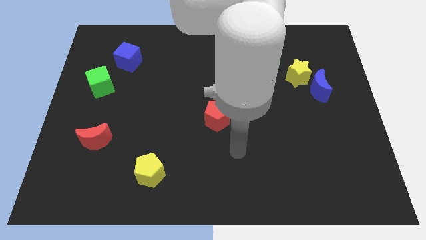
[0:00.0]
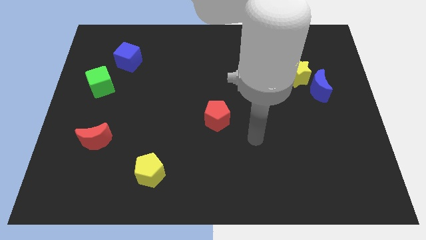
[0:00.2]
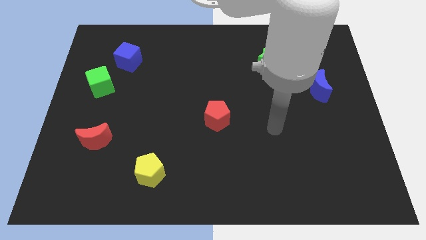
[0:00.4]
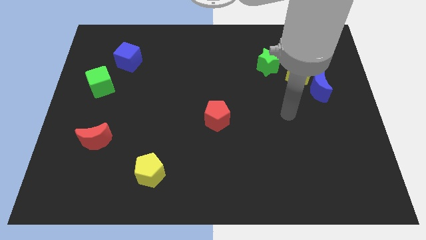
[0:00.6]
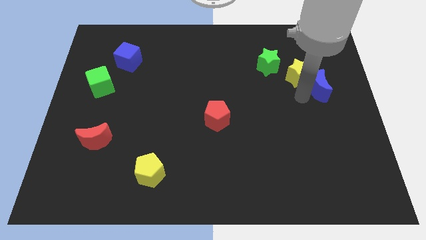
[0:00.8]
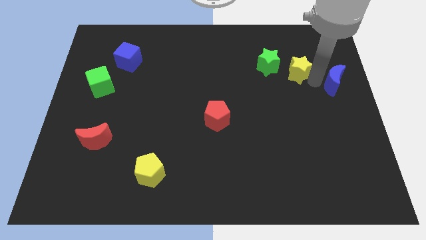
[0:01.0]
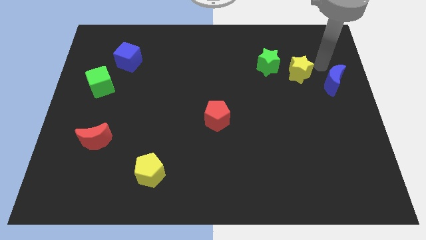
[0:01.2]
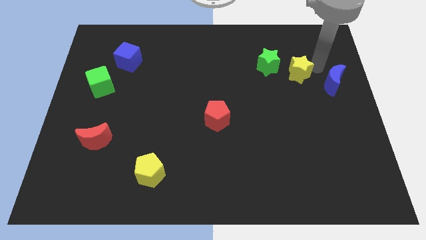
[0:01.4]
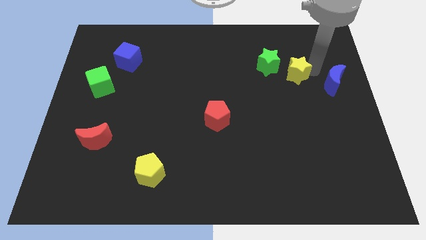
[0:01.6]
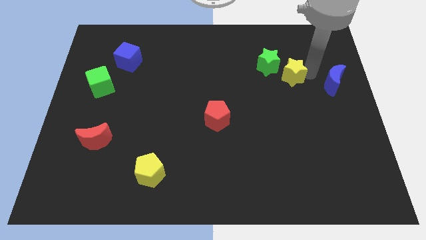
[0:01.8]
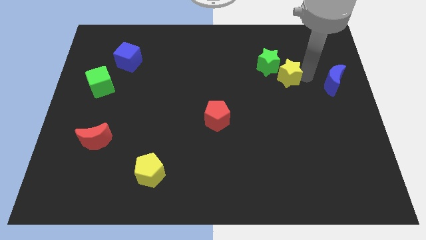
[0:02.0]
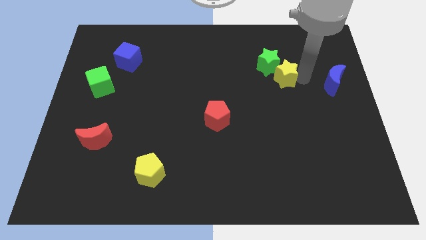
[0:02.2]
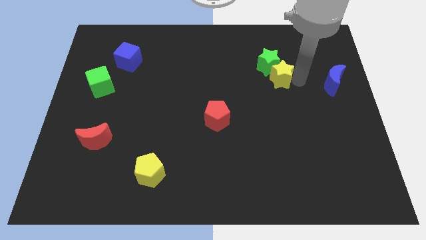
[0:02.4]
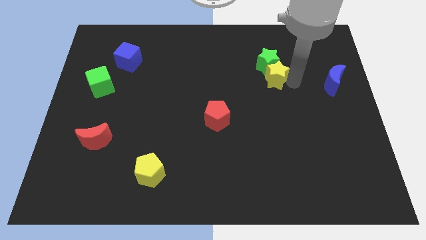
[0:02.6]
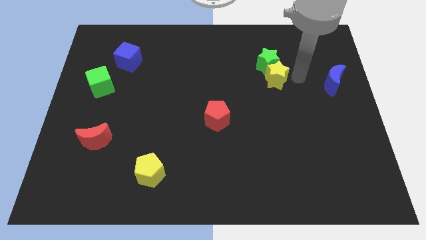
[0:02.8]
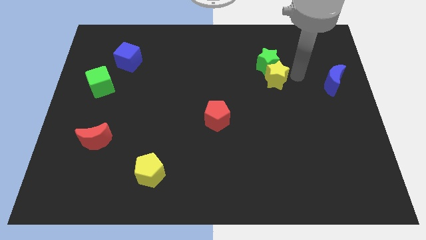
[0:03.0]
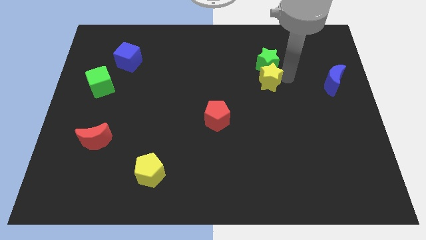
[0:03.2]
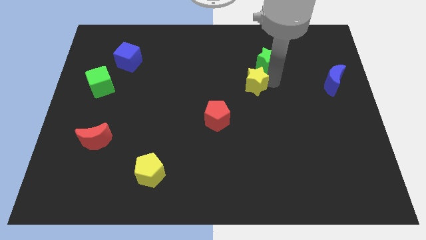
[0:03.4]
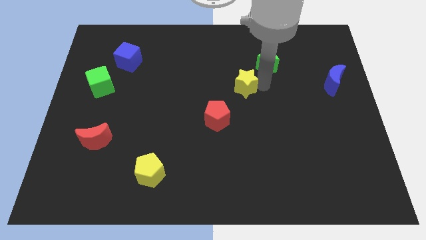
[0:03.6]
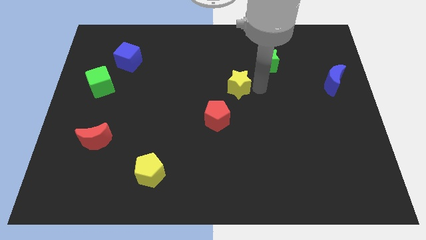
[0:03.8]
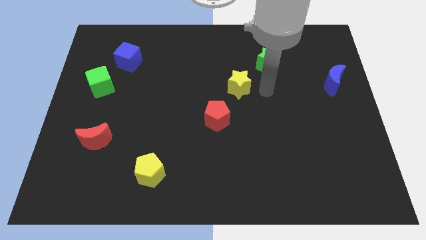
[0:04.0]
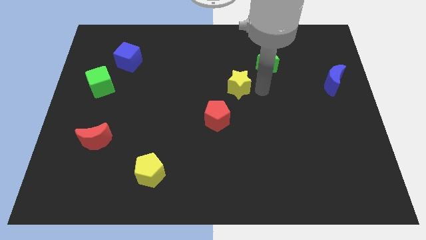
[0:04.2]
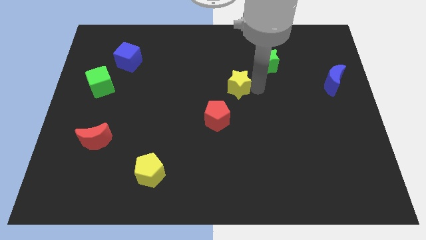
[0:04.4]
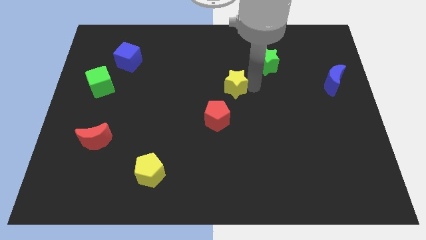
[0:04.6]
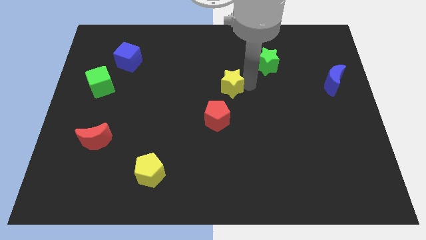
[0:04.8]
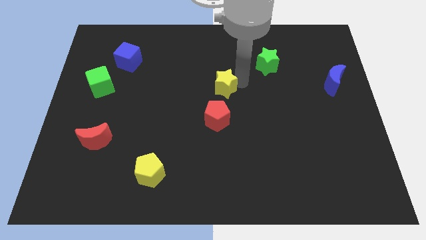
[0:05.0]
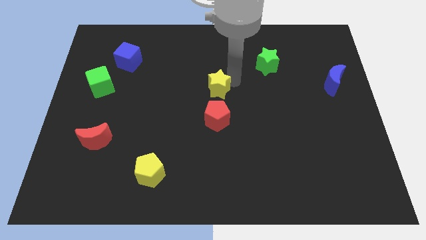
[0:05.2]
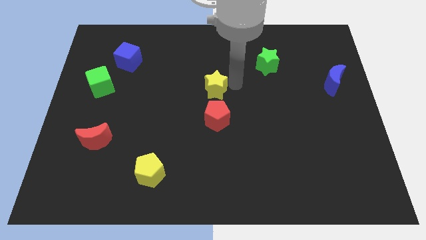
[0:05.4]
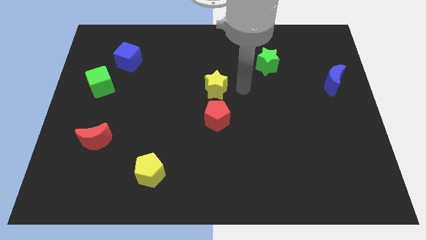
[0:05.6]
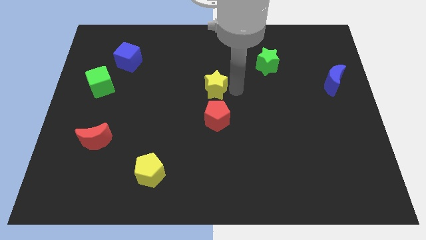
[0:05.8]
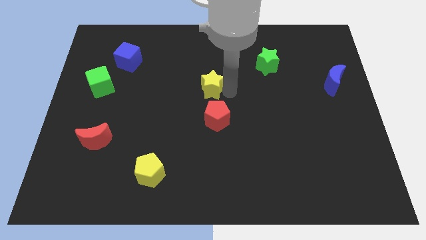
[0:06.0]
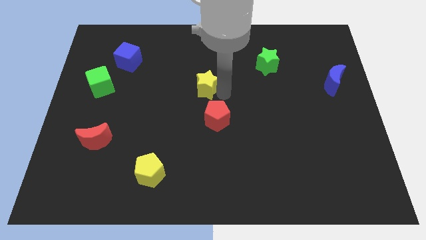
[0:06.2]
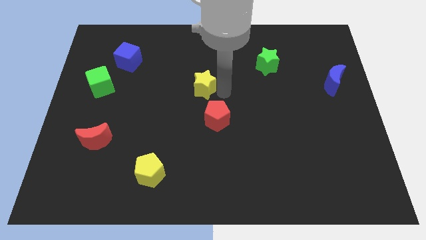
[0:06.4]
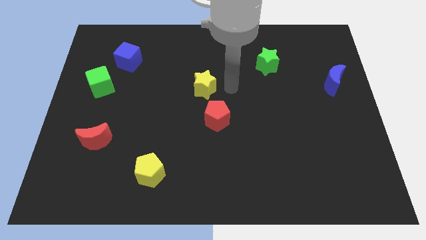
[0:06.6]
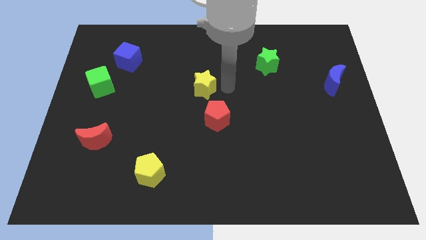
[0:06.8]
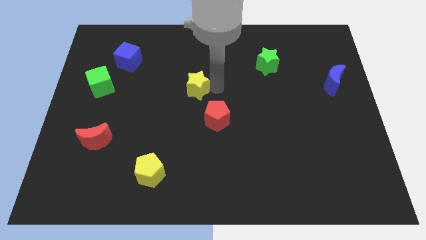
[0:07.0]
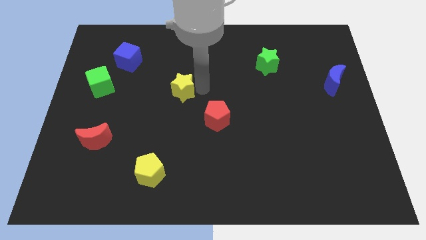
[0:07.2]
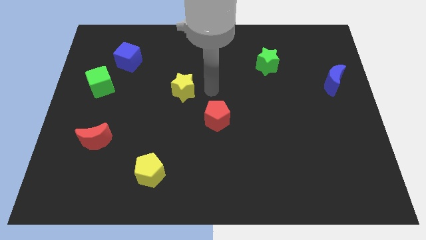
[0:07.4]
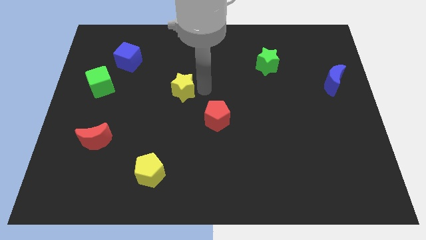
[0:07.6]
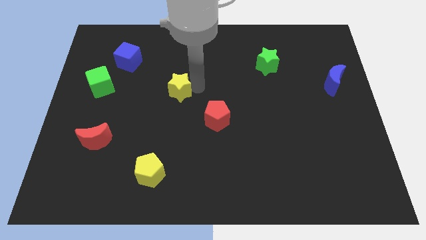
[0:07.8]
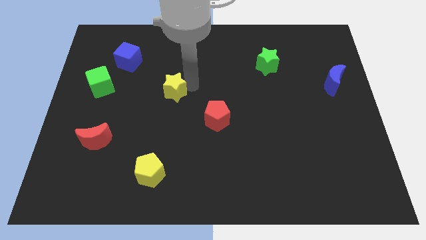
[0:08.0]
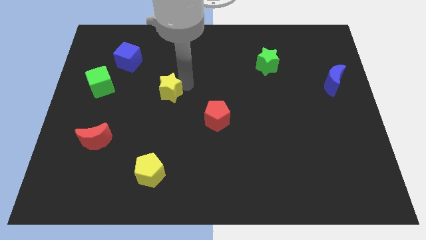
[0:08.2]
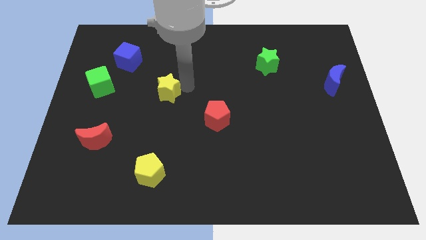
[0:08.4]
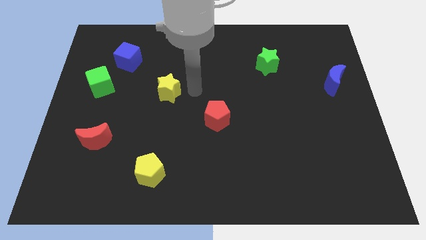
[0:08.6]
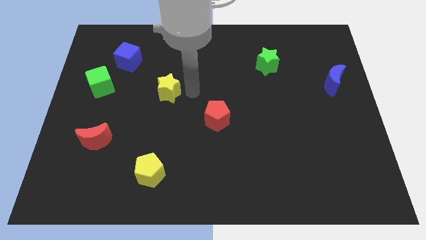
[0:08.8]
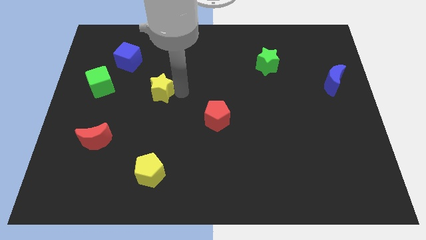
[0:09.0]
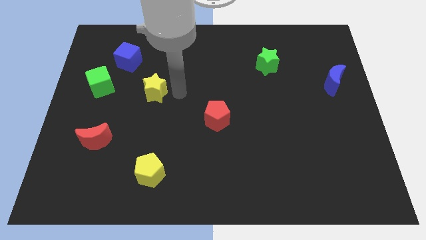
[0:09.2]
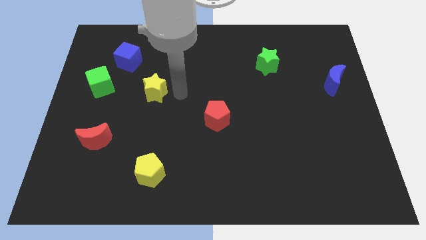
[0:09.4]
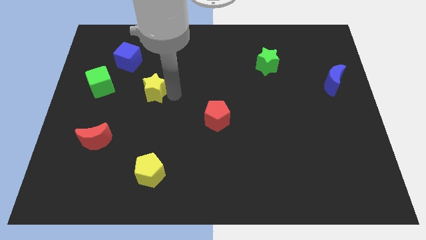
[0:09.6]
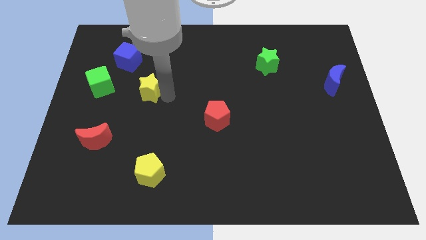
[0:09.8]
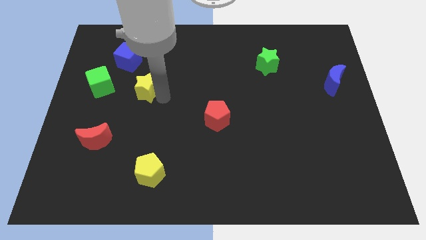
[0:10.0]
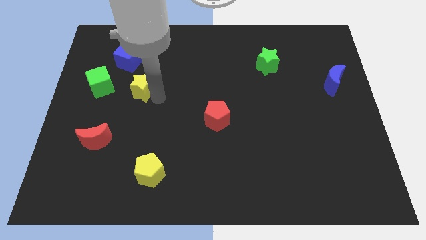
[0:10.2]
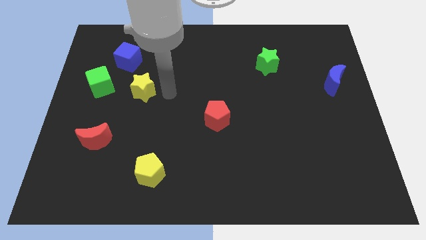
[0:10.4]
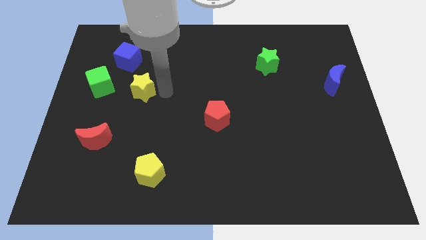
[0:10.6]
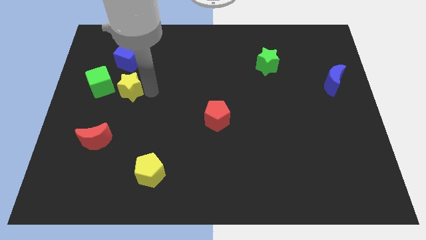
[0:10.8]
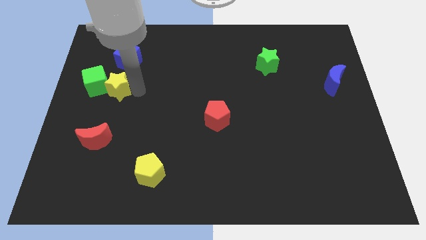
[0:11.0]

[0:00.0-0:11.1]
put the yellow star close to the green cube

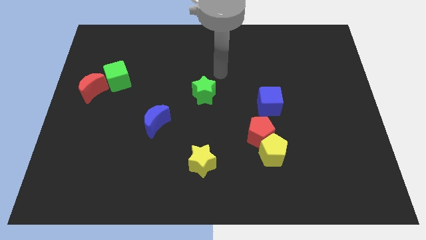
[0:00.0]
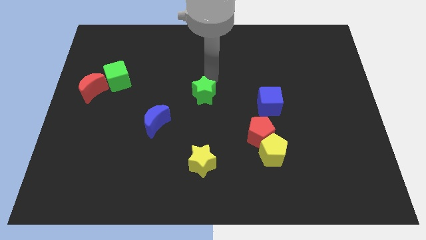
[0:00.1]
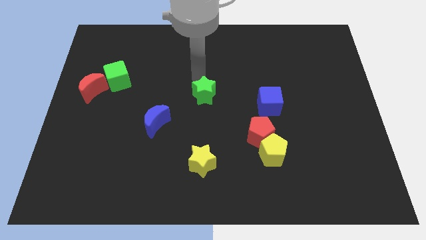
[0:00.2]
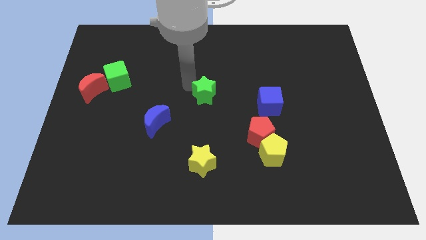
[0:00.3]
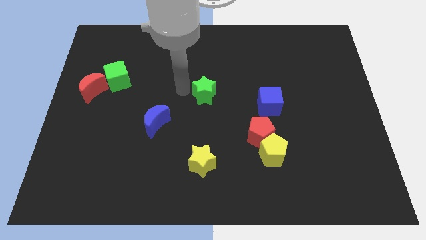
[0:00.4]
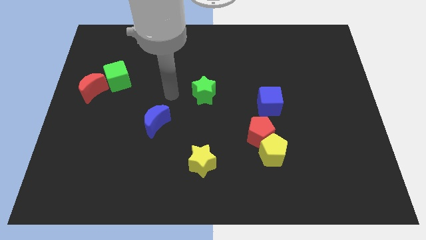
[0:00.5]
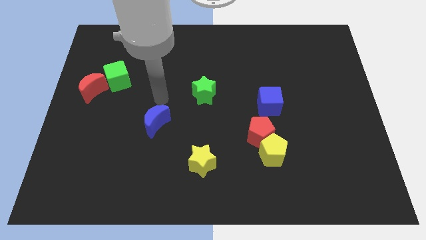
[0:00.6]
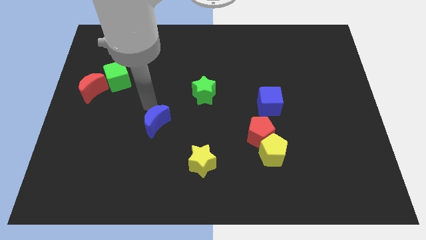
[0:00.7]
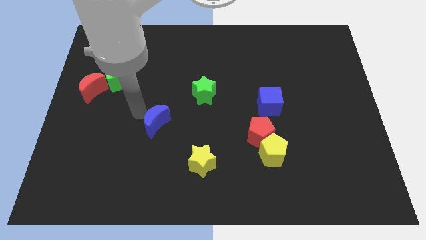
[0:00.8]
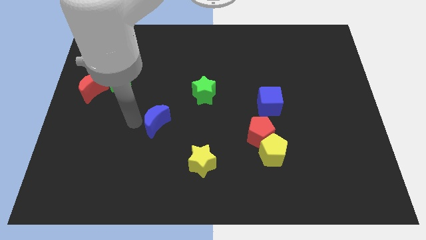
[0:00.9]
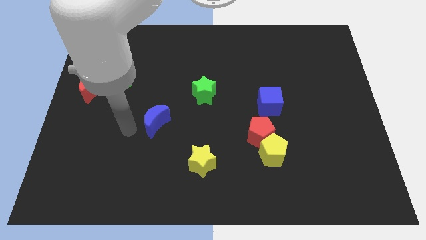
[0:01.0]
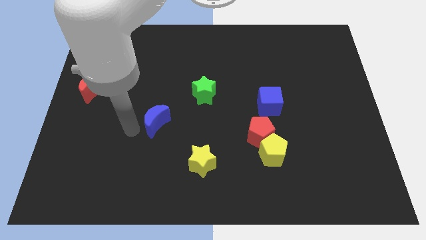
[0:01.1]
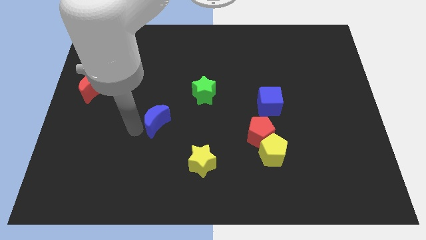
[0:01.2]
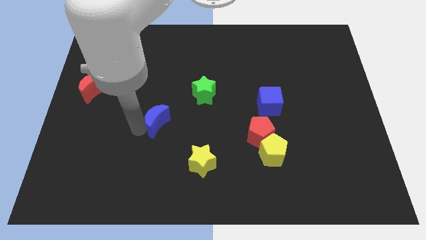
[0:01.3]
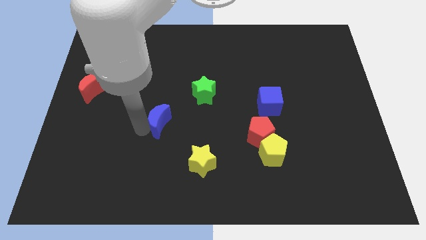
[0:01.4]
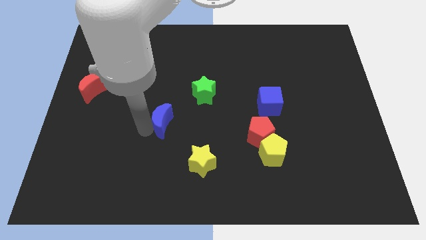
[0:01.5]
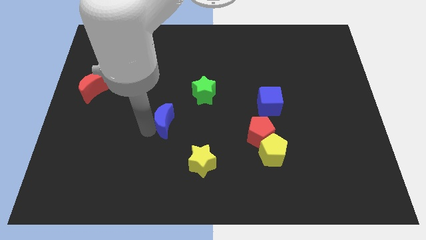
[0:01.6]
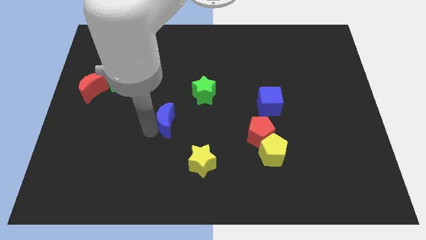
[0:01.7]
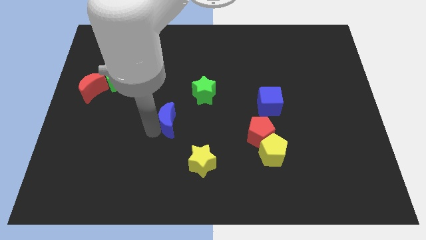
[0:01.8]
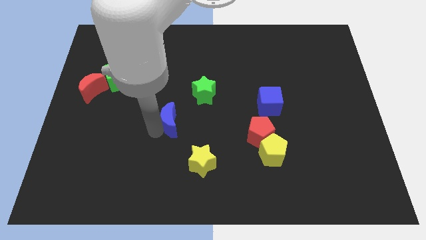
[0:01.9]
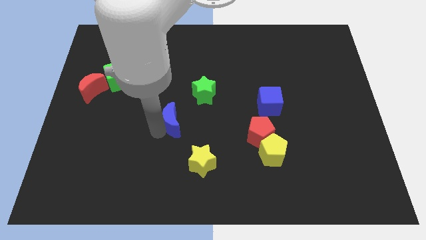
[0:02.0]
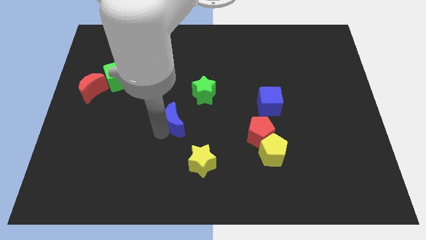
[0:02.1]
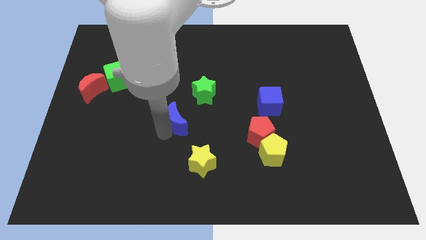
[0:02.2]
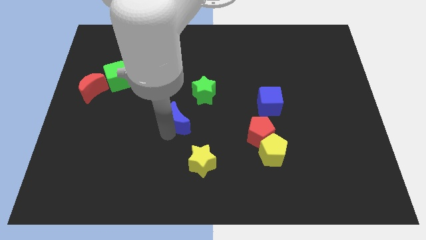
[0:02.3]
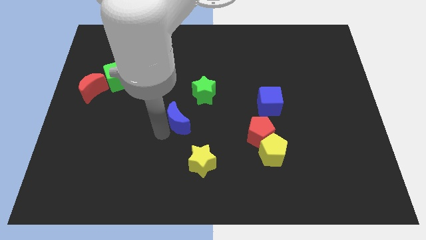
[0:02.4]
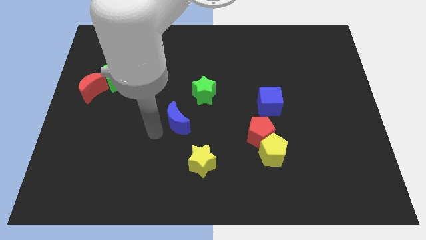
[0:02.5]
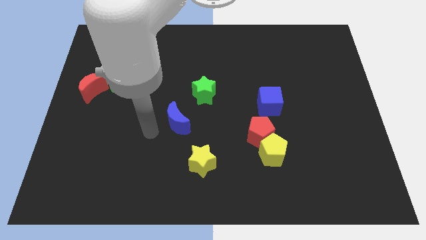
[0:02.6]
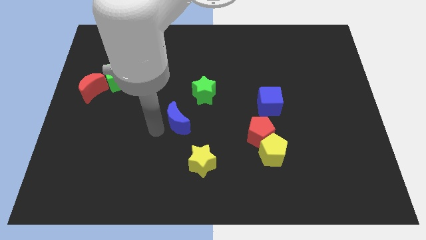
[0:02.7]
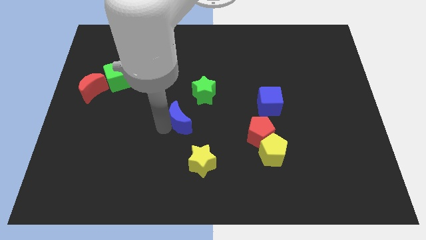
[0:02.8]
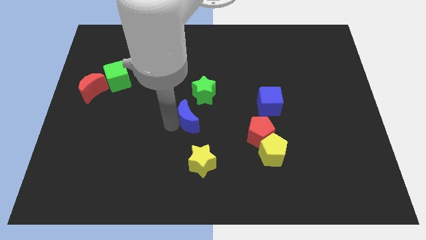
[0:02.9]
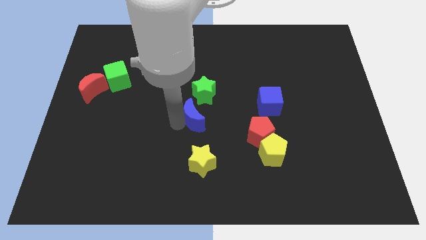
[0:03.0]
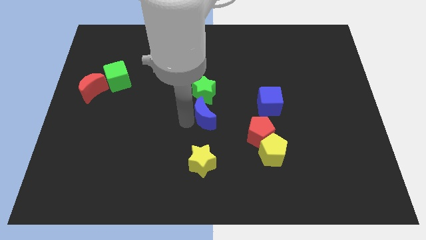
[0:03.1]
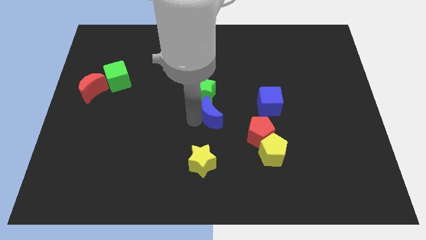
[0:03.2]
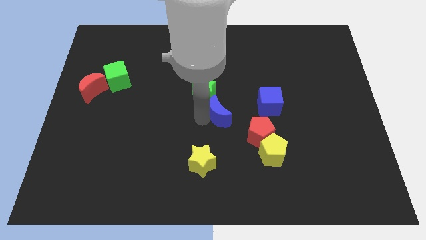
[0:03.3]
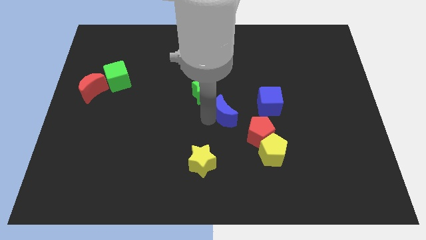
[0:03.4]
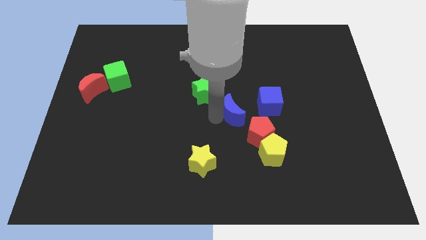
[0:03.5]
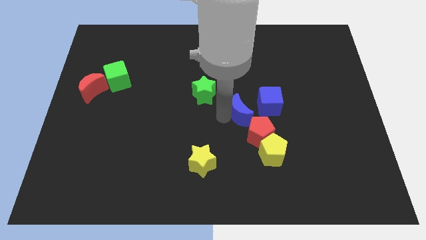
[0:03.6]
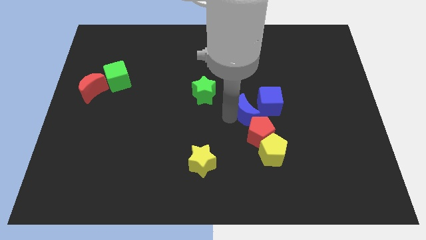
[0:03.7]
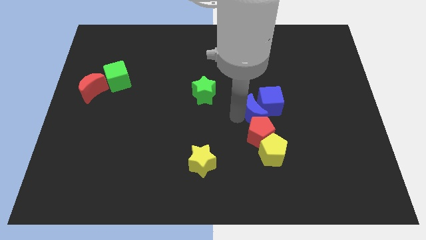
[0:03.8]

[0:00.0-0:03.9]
put the blue moon towards the blue cube
